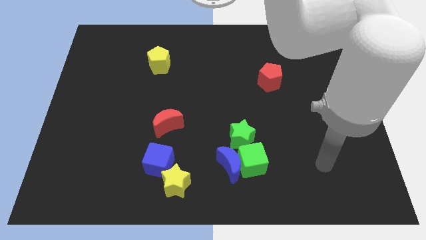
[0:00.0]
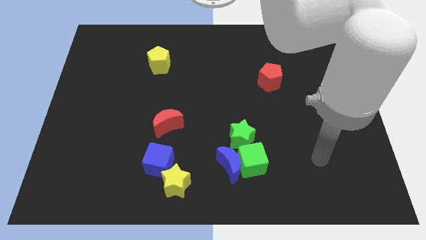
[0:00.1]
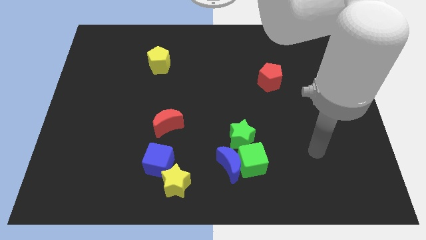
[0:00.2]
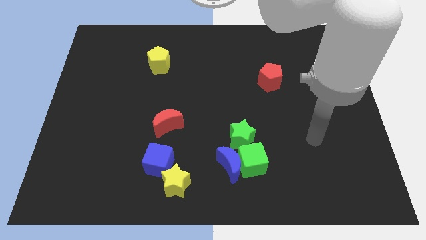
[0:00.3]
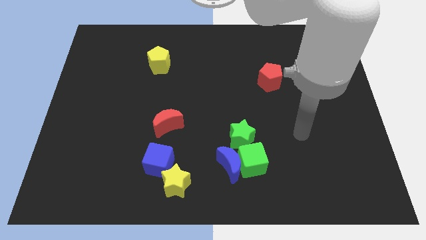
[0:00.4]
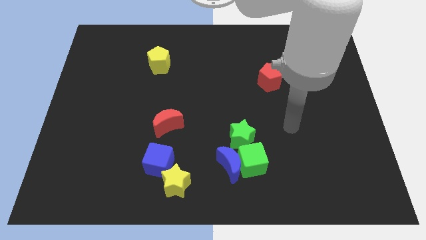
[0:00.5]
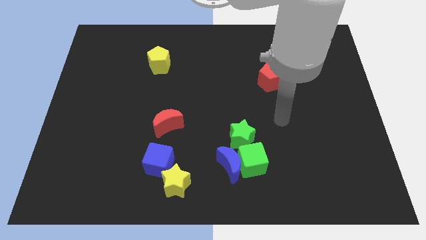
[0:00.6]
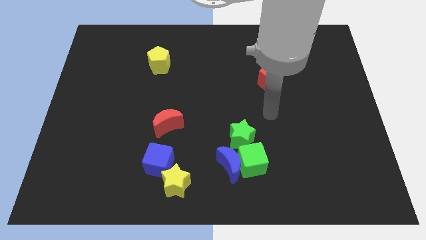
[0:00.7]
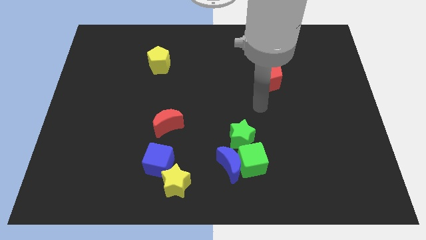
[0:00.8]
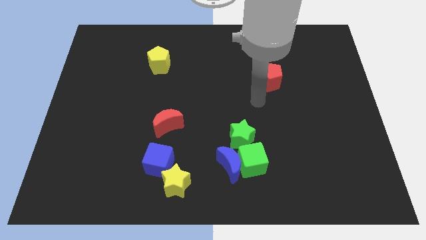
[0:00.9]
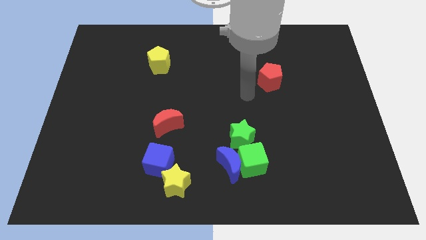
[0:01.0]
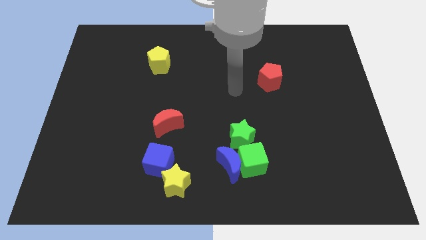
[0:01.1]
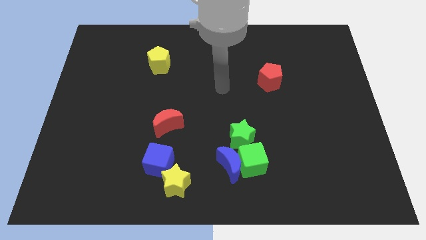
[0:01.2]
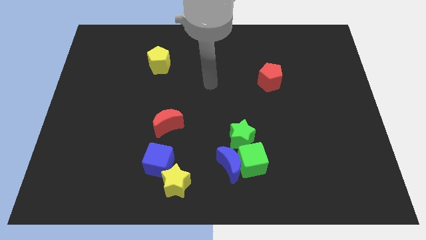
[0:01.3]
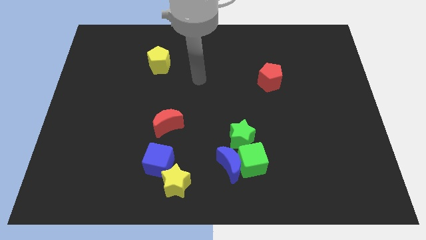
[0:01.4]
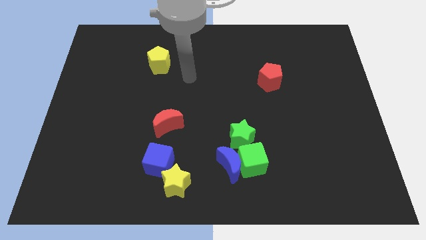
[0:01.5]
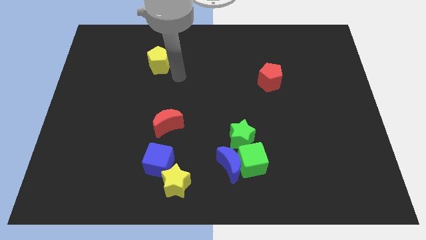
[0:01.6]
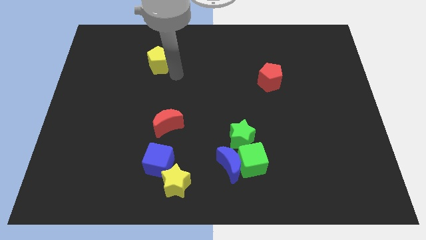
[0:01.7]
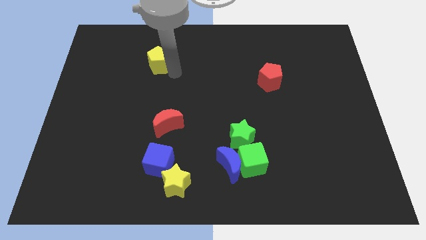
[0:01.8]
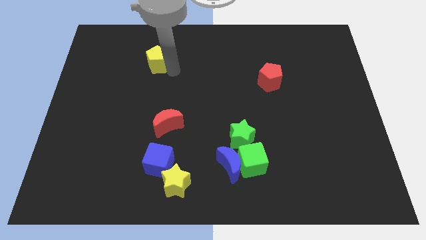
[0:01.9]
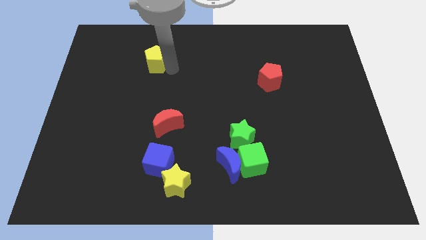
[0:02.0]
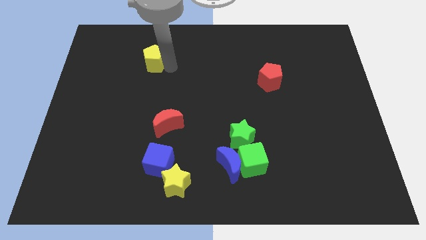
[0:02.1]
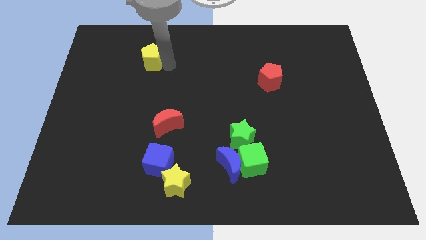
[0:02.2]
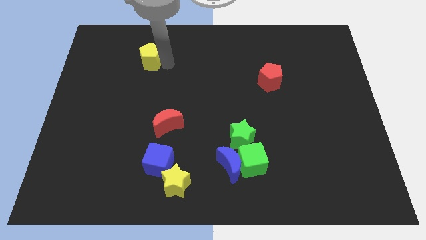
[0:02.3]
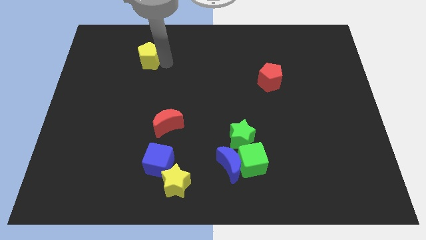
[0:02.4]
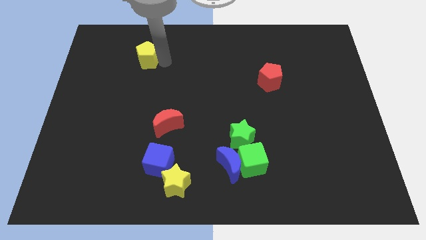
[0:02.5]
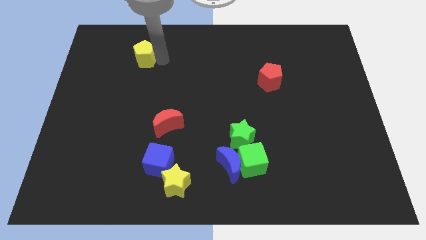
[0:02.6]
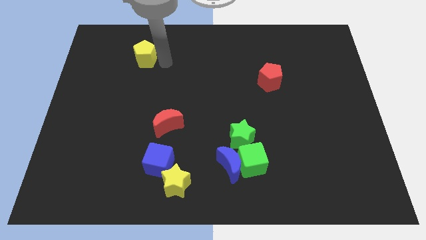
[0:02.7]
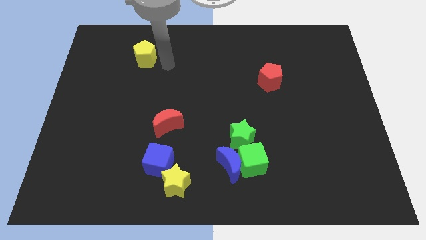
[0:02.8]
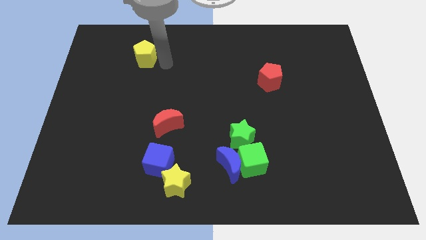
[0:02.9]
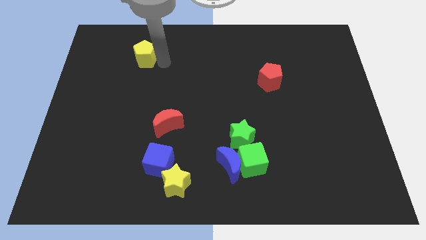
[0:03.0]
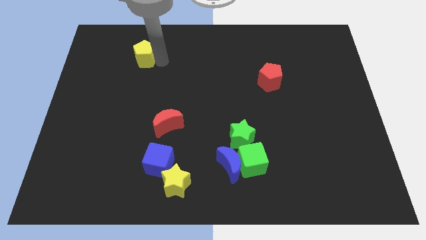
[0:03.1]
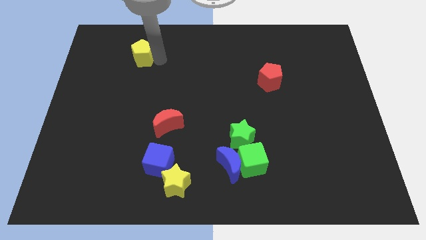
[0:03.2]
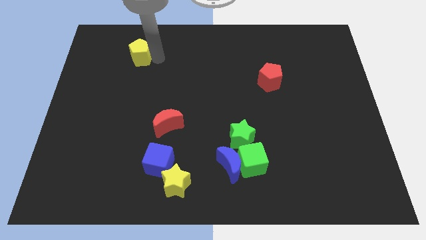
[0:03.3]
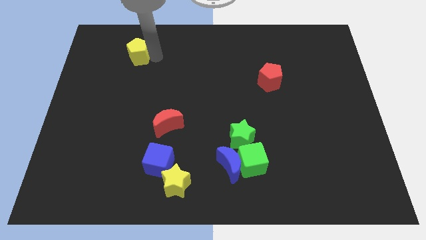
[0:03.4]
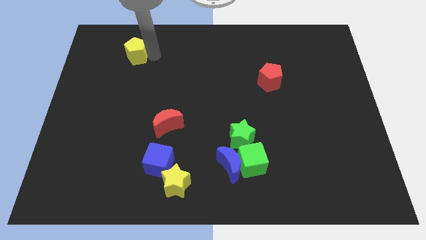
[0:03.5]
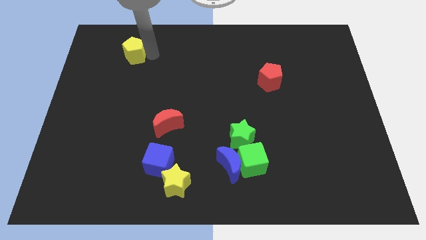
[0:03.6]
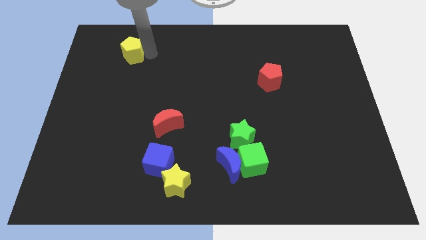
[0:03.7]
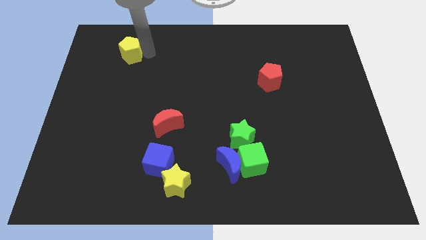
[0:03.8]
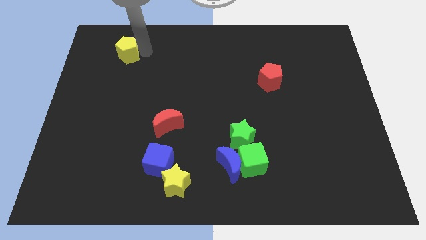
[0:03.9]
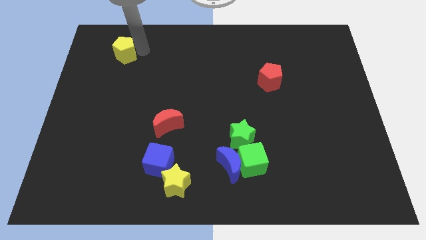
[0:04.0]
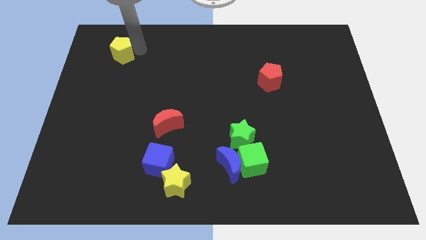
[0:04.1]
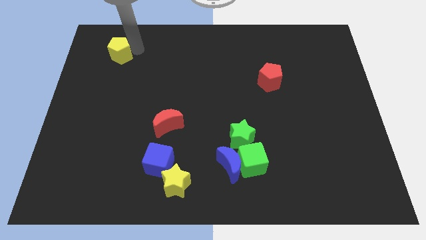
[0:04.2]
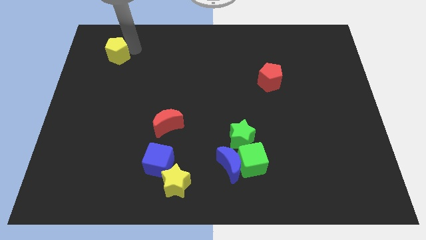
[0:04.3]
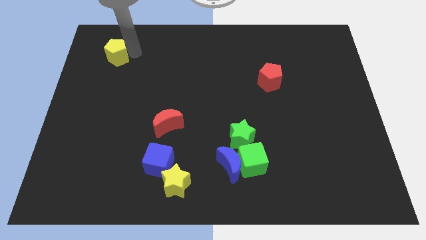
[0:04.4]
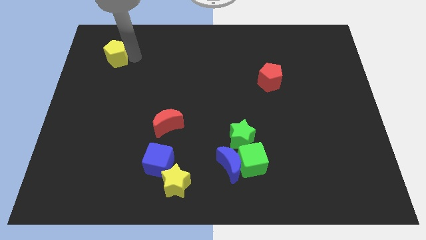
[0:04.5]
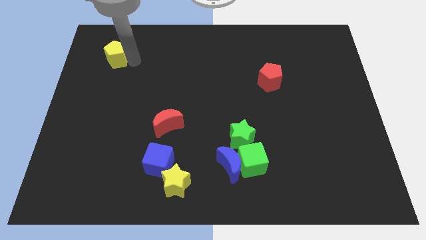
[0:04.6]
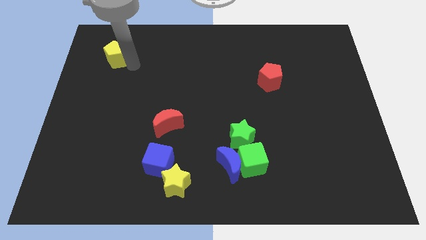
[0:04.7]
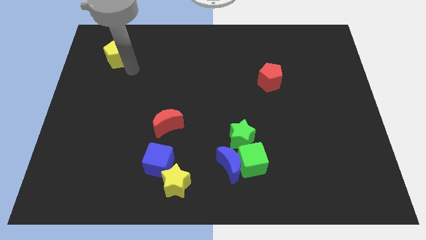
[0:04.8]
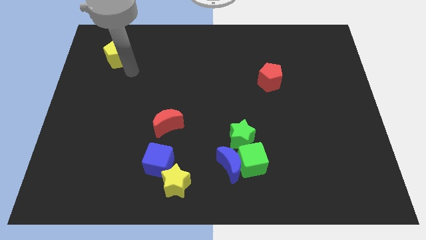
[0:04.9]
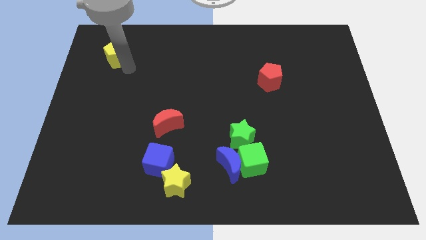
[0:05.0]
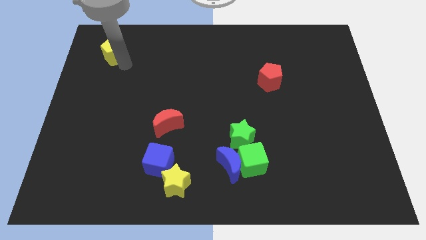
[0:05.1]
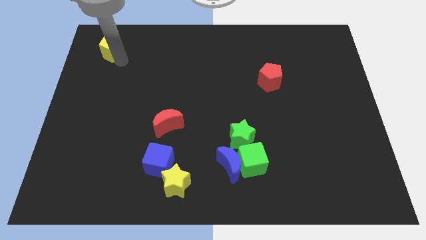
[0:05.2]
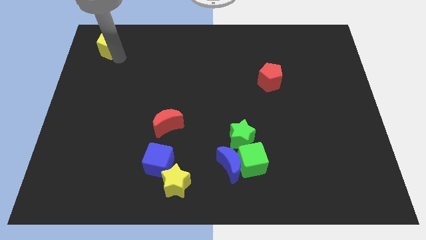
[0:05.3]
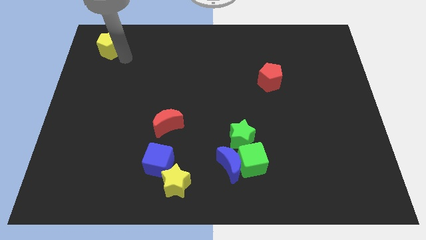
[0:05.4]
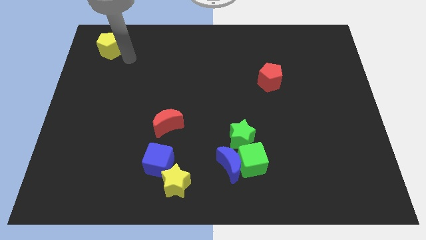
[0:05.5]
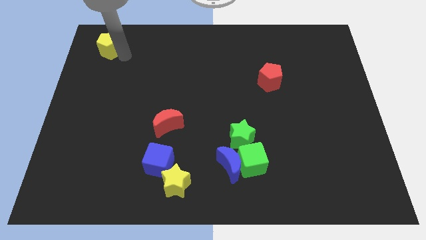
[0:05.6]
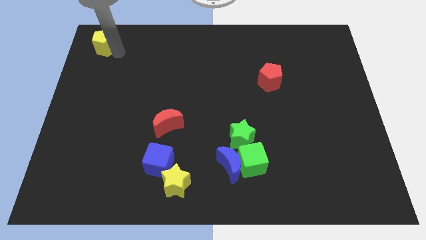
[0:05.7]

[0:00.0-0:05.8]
slide the yellow pentagon to the upper left corner

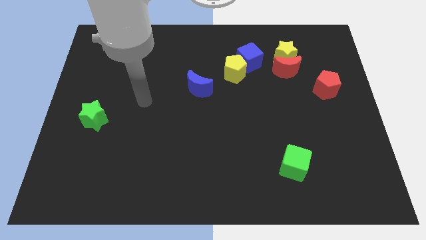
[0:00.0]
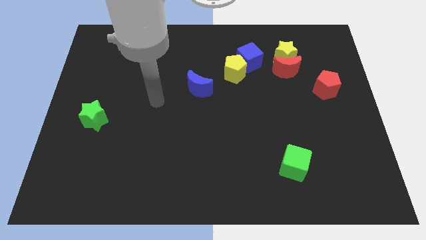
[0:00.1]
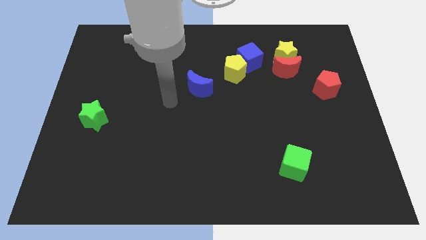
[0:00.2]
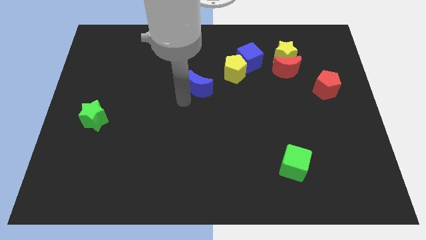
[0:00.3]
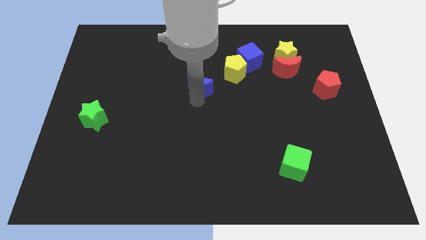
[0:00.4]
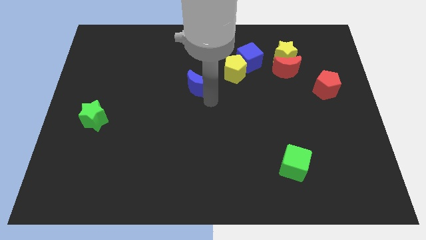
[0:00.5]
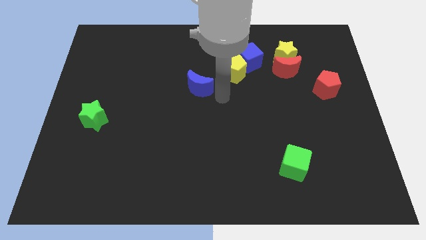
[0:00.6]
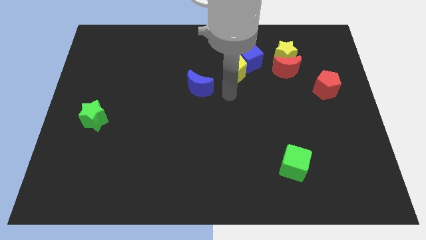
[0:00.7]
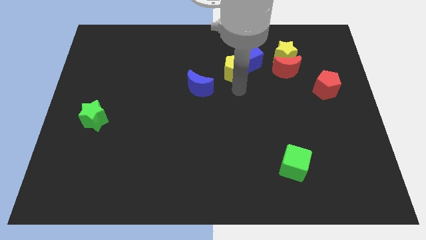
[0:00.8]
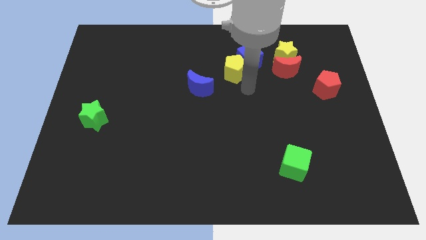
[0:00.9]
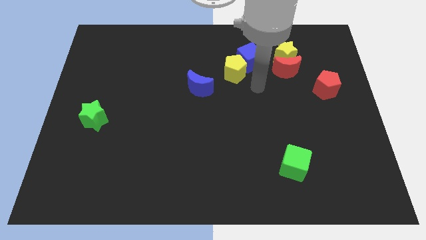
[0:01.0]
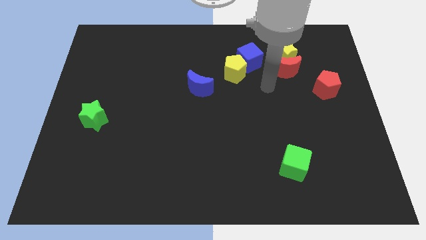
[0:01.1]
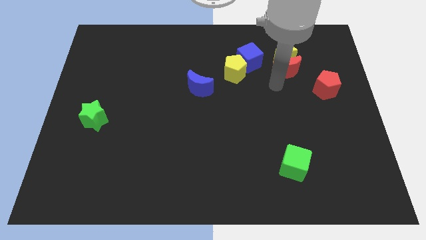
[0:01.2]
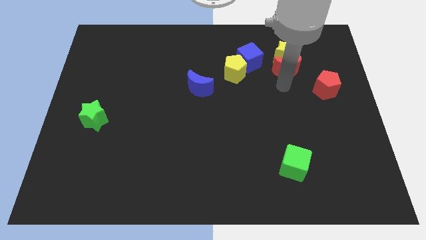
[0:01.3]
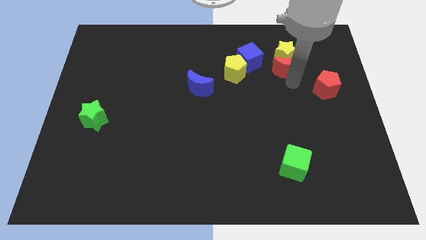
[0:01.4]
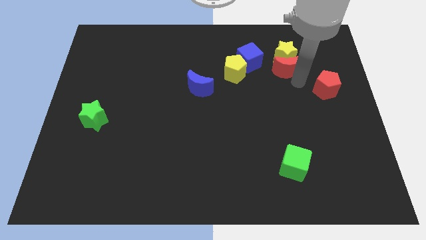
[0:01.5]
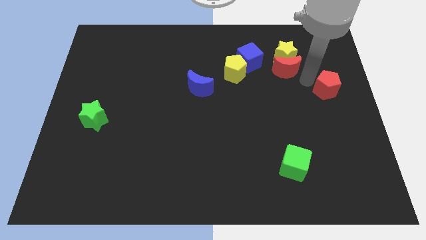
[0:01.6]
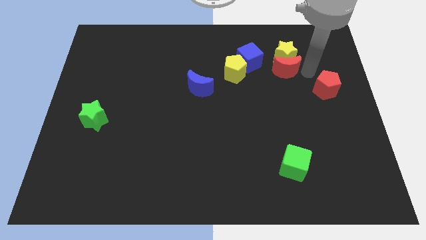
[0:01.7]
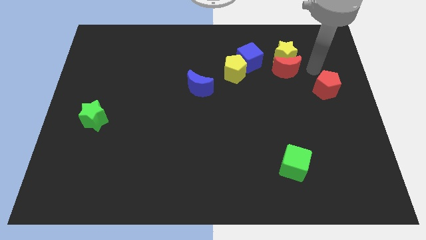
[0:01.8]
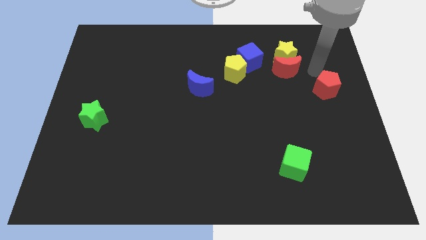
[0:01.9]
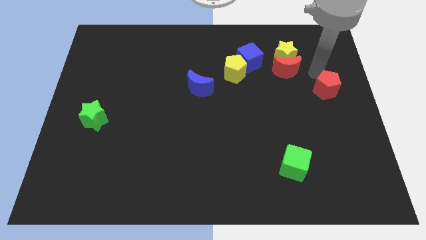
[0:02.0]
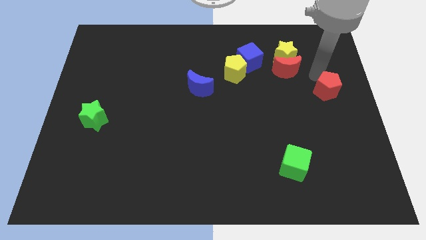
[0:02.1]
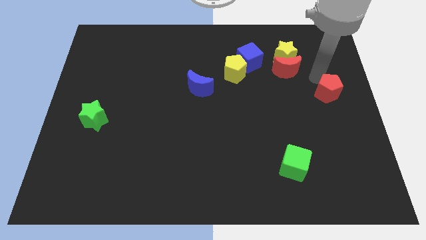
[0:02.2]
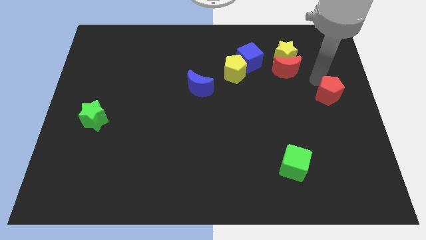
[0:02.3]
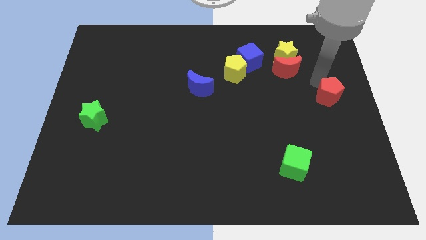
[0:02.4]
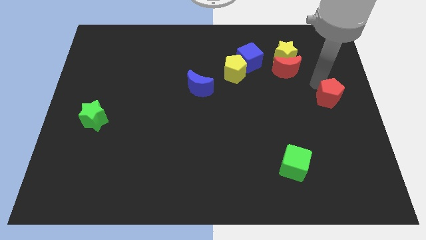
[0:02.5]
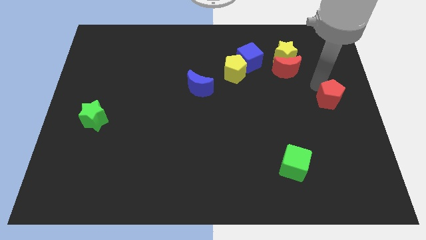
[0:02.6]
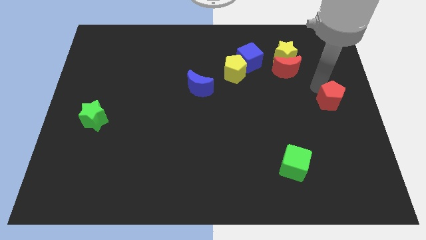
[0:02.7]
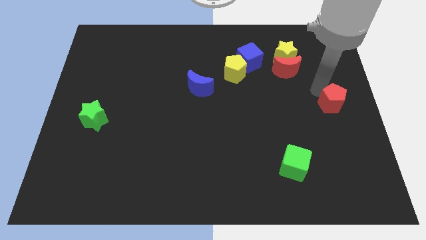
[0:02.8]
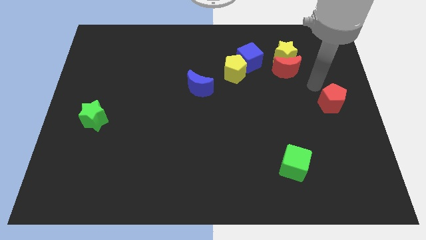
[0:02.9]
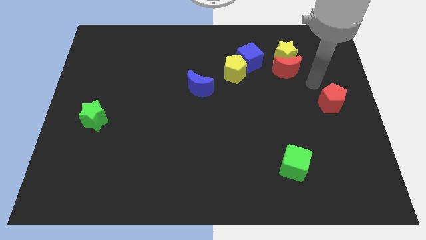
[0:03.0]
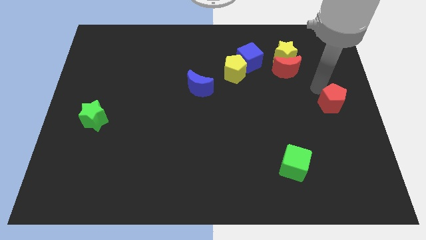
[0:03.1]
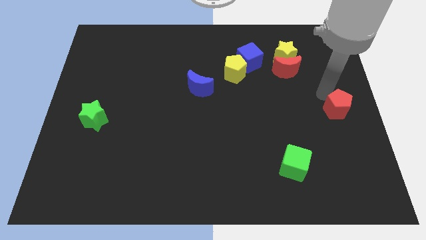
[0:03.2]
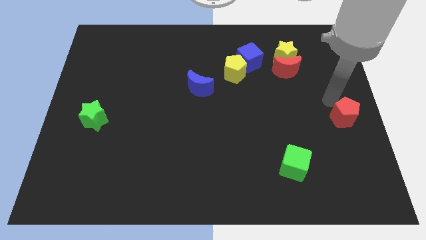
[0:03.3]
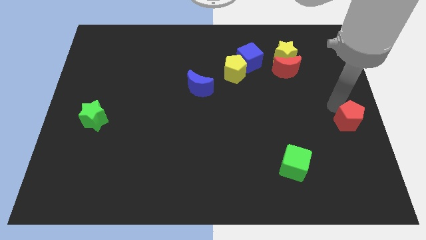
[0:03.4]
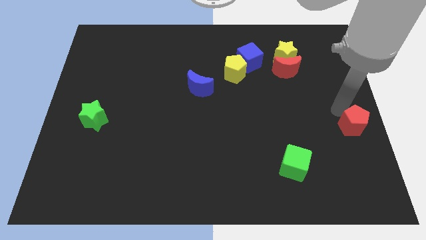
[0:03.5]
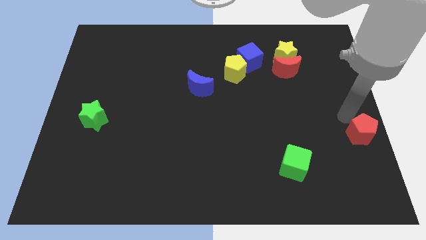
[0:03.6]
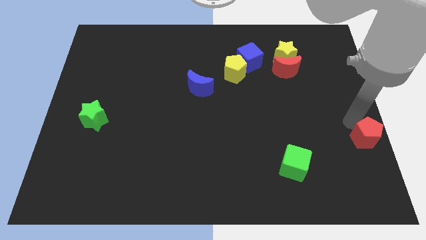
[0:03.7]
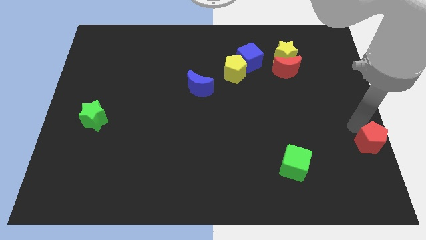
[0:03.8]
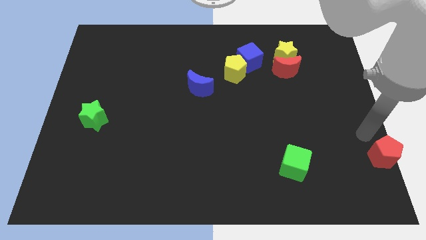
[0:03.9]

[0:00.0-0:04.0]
push the red pentagon to the lower right corner
